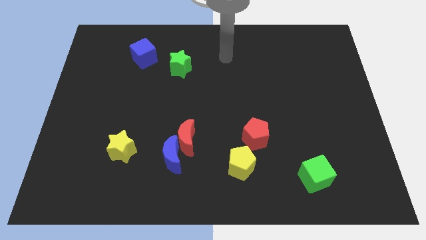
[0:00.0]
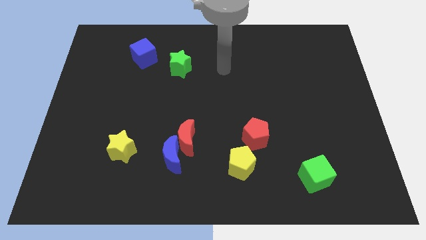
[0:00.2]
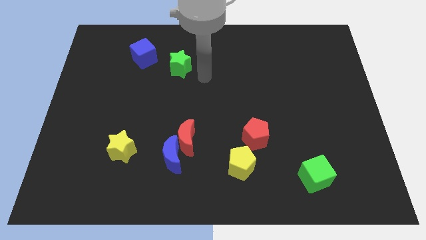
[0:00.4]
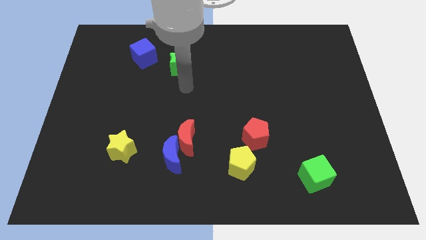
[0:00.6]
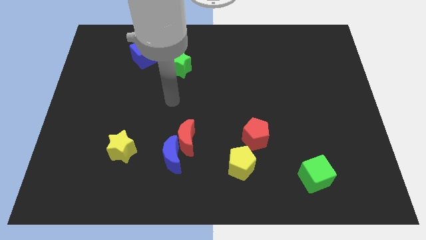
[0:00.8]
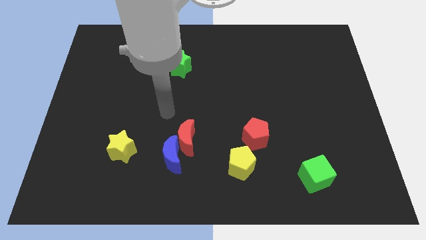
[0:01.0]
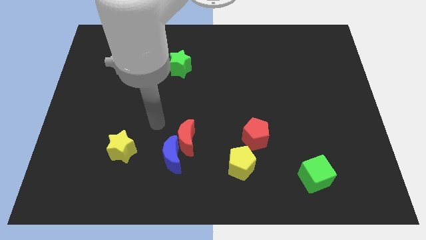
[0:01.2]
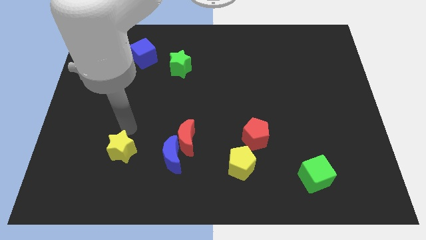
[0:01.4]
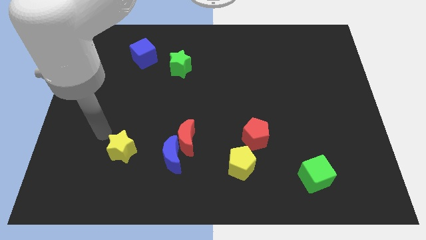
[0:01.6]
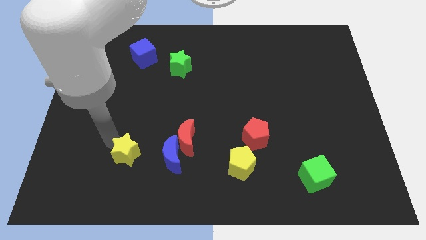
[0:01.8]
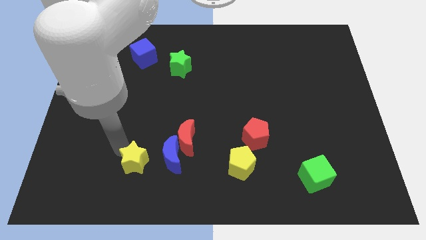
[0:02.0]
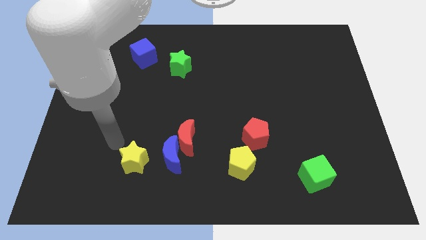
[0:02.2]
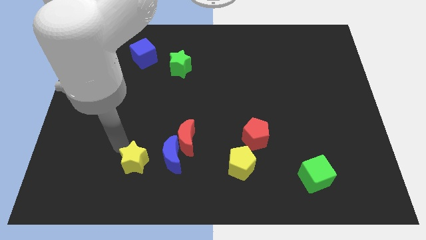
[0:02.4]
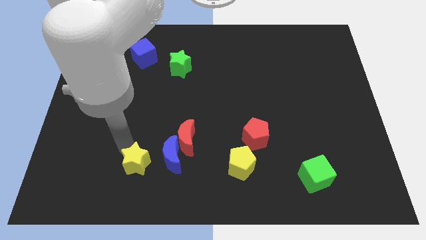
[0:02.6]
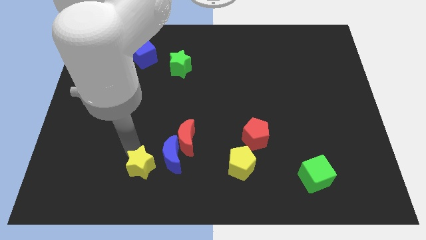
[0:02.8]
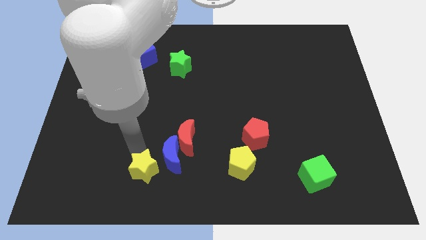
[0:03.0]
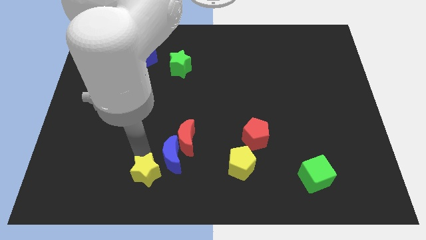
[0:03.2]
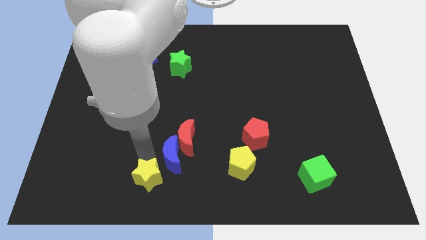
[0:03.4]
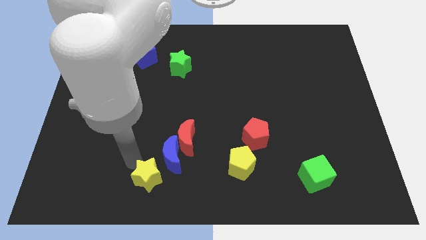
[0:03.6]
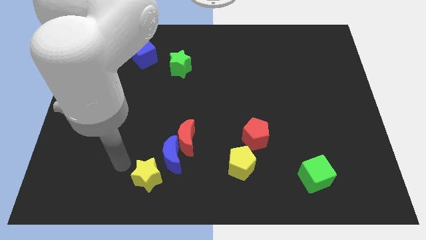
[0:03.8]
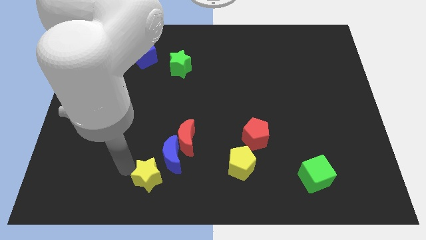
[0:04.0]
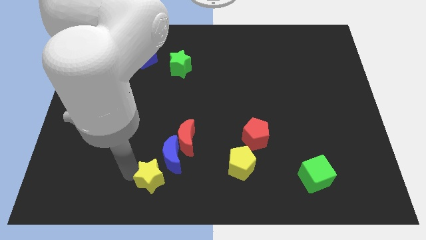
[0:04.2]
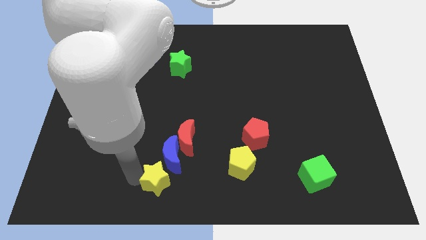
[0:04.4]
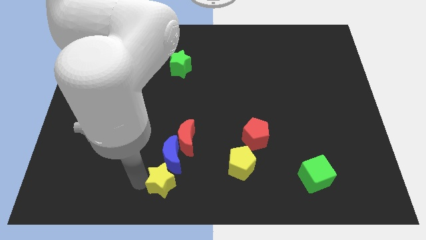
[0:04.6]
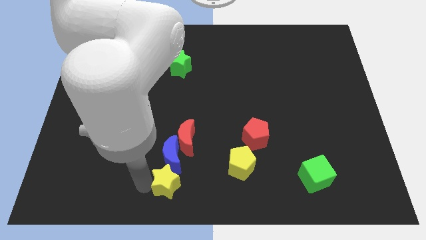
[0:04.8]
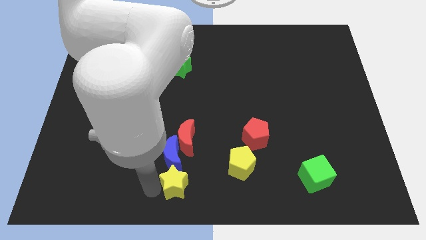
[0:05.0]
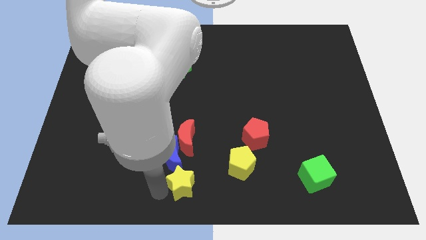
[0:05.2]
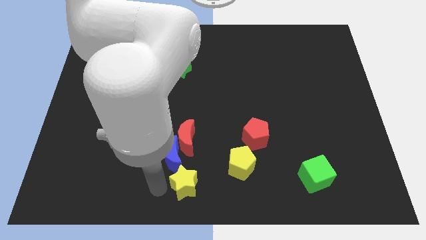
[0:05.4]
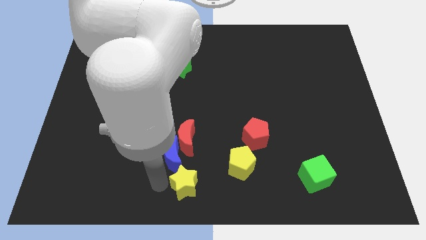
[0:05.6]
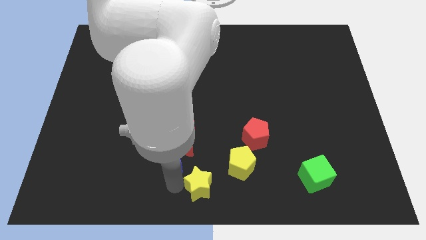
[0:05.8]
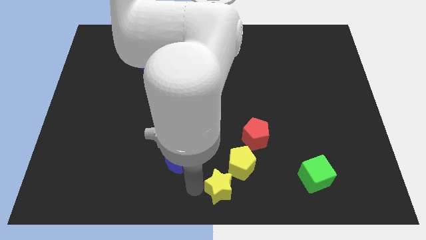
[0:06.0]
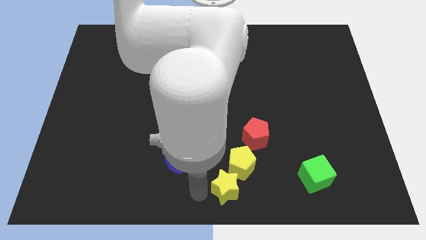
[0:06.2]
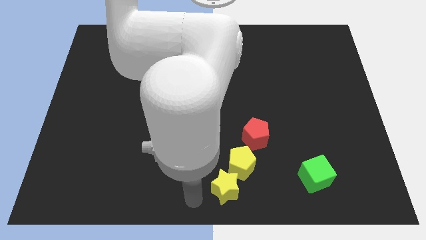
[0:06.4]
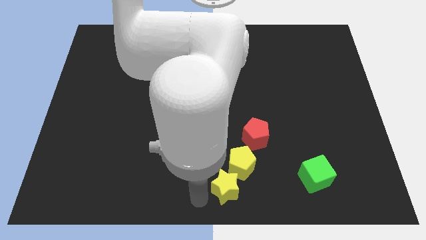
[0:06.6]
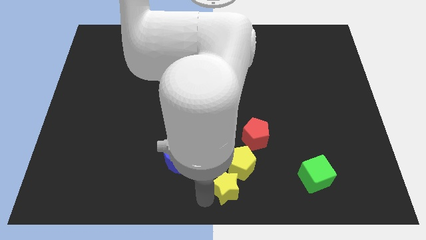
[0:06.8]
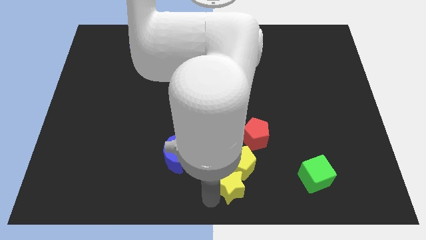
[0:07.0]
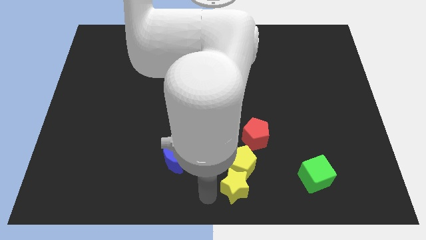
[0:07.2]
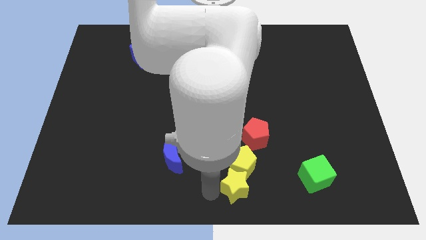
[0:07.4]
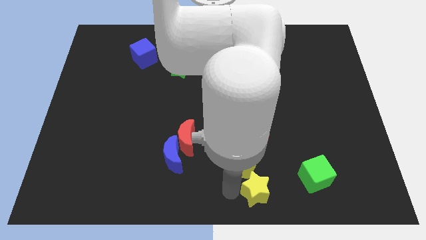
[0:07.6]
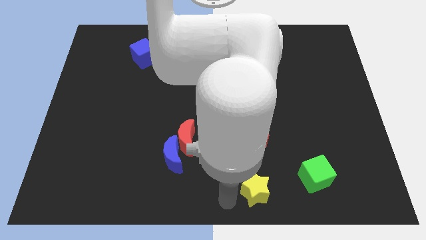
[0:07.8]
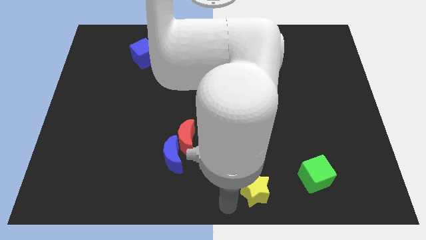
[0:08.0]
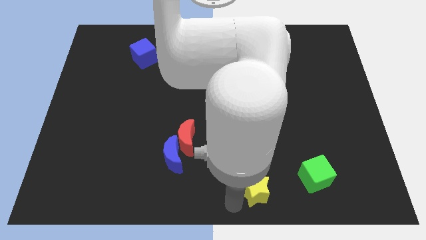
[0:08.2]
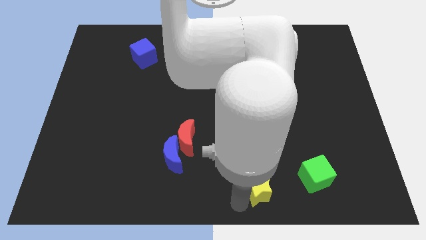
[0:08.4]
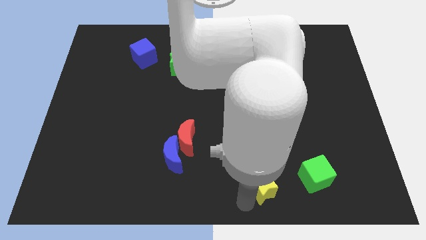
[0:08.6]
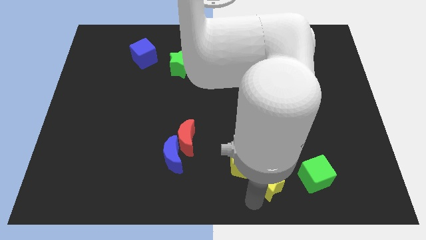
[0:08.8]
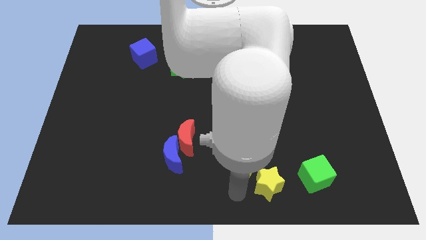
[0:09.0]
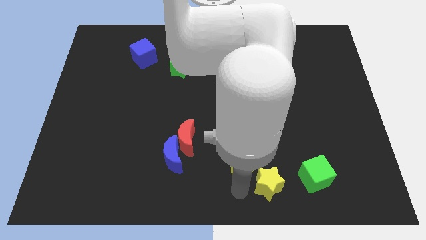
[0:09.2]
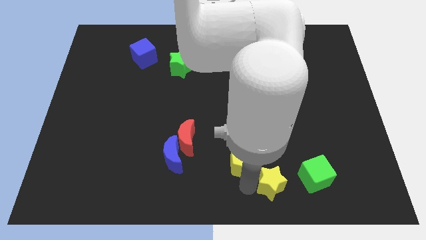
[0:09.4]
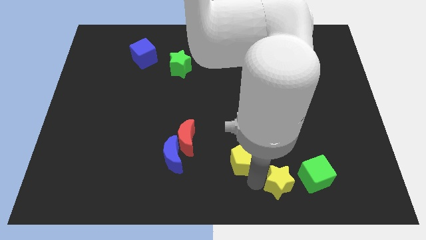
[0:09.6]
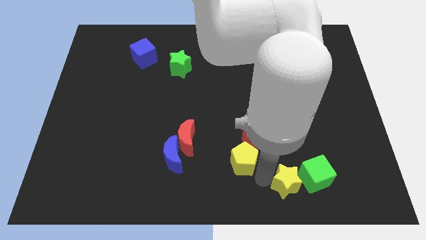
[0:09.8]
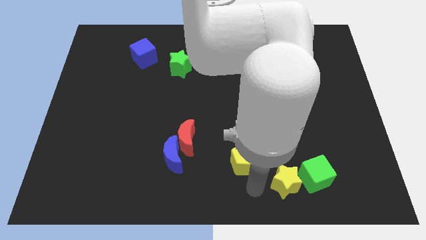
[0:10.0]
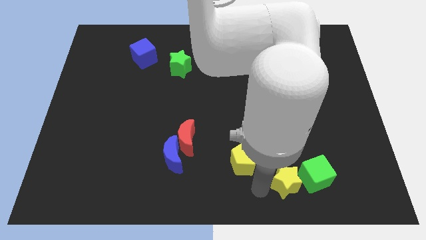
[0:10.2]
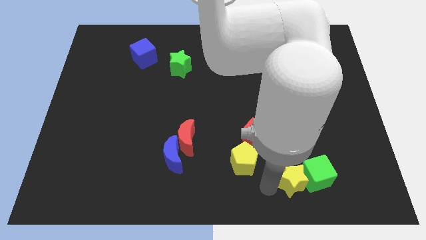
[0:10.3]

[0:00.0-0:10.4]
push the yellow star towards the green cube

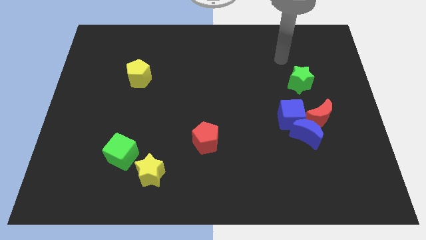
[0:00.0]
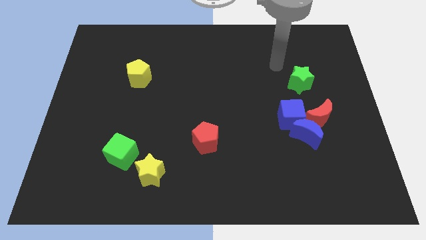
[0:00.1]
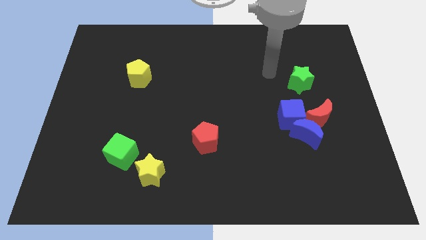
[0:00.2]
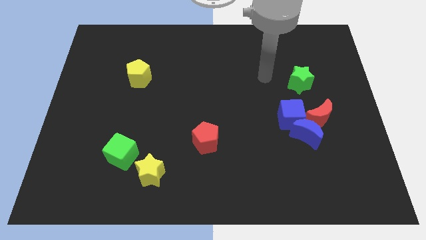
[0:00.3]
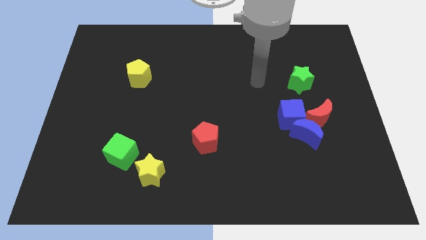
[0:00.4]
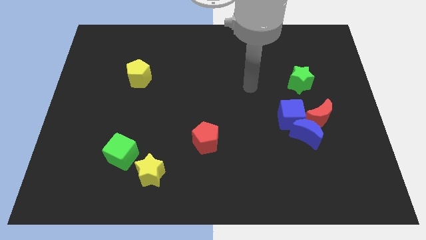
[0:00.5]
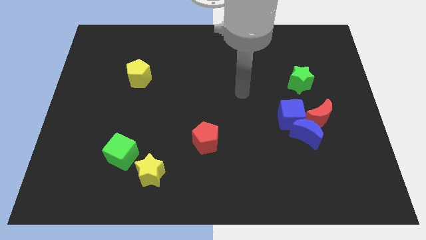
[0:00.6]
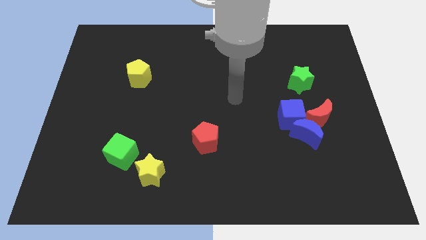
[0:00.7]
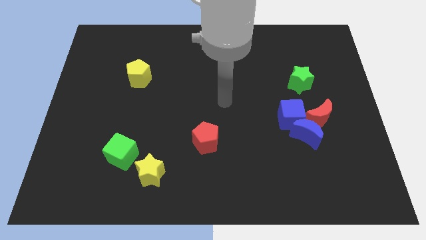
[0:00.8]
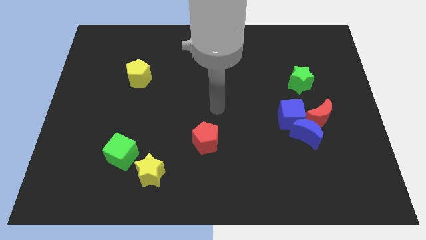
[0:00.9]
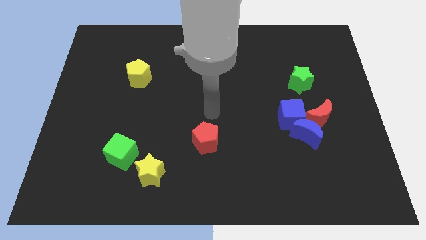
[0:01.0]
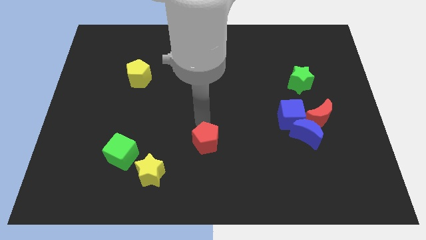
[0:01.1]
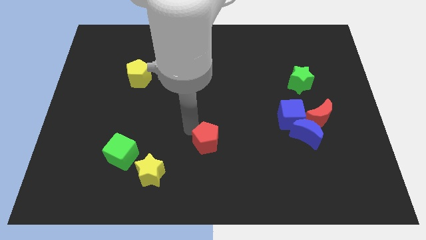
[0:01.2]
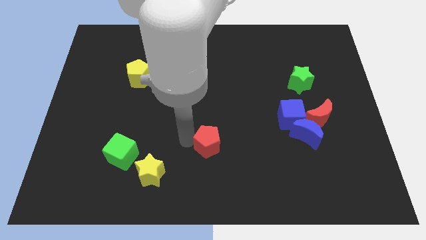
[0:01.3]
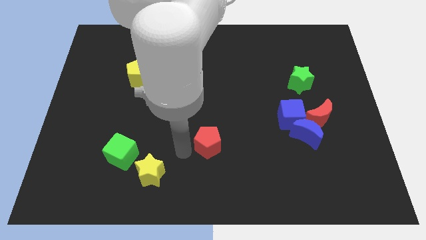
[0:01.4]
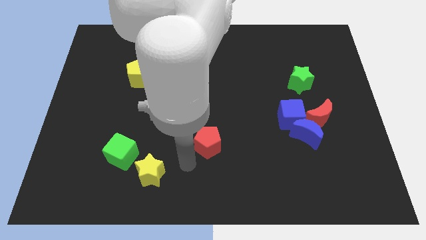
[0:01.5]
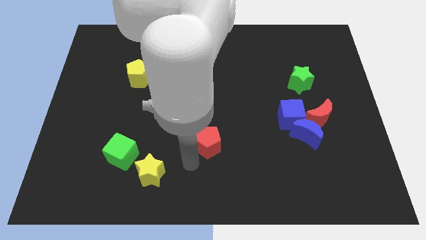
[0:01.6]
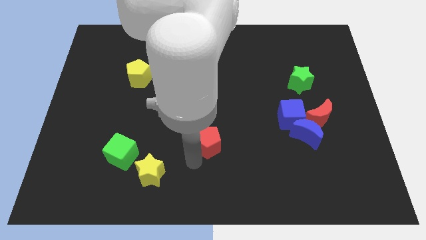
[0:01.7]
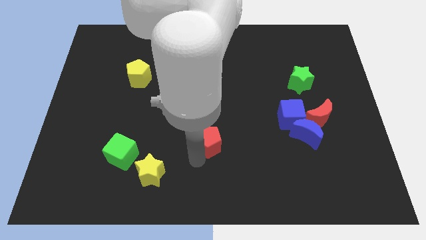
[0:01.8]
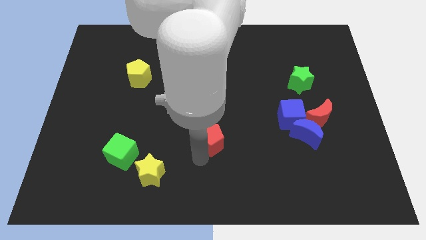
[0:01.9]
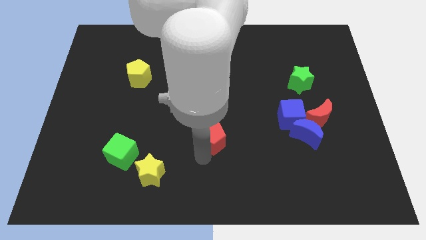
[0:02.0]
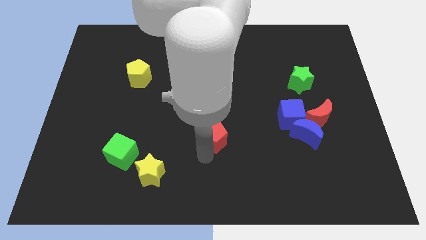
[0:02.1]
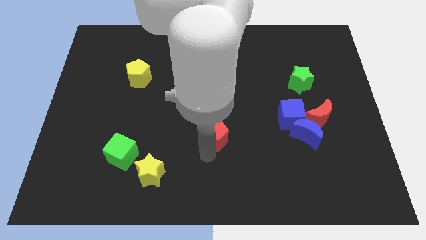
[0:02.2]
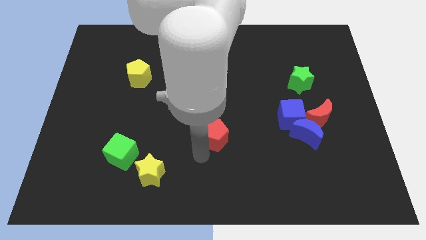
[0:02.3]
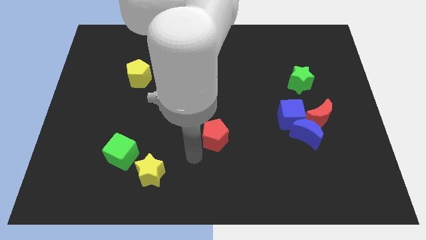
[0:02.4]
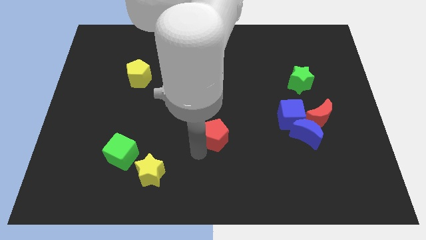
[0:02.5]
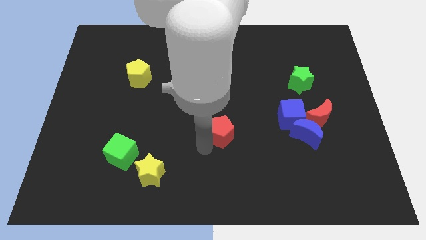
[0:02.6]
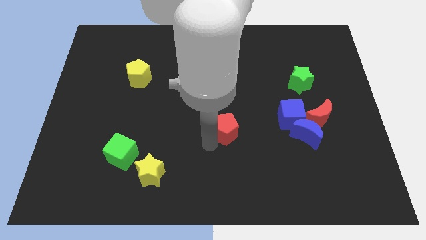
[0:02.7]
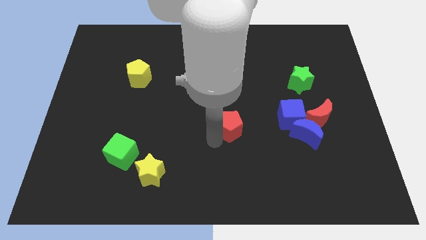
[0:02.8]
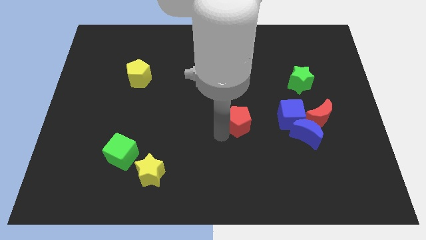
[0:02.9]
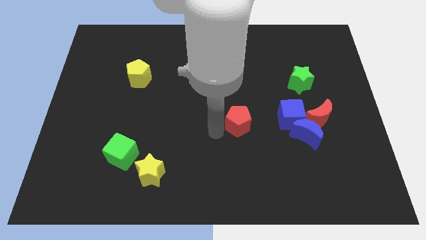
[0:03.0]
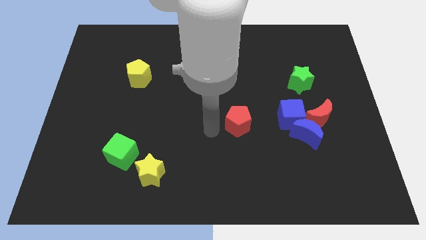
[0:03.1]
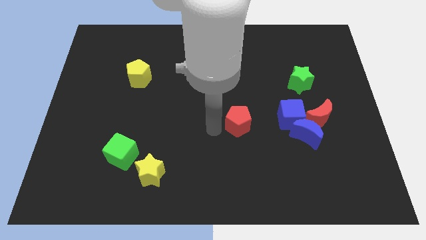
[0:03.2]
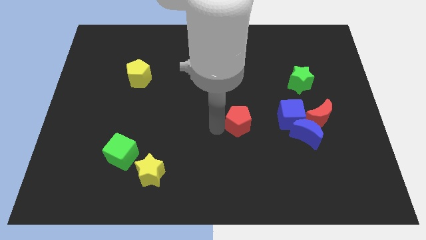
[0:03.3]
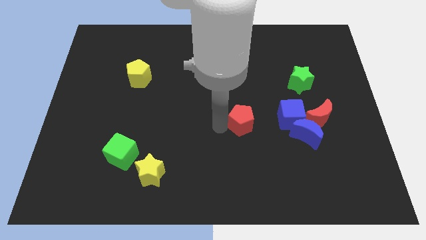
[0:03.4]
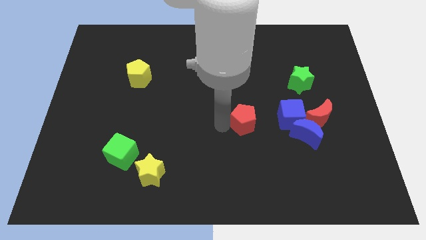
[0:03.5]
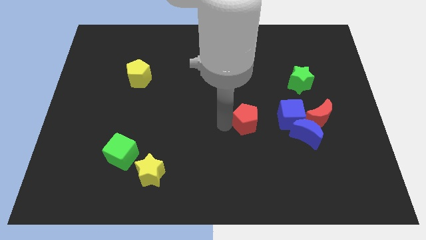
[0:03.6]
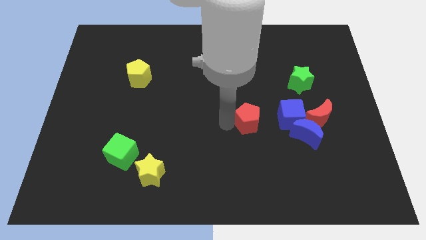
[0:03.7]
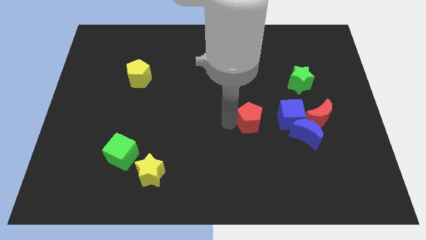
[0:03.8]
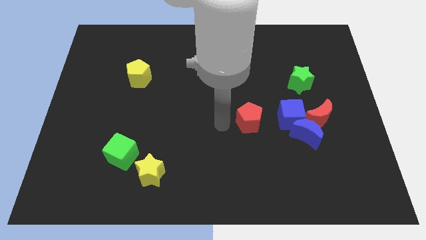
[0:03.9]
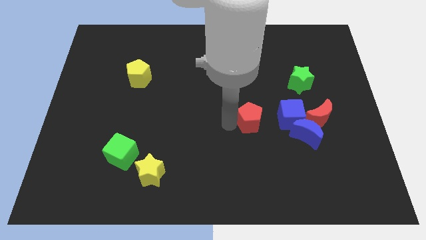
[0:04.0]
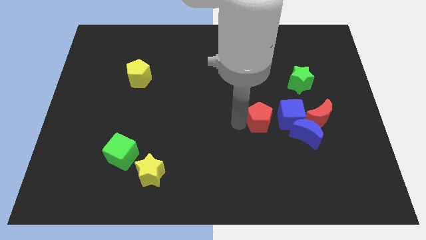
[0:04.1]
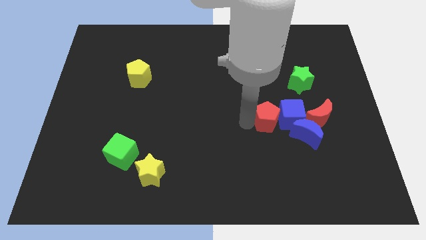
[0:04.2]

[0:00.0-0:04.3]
move the red pentagon towards the blue cube
